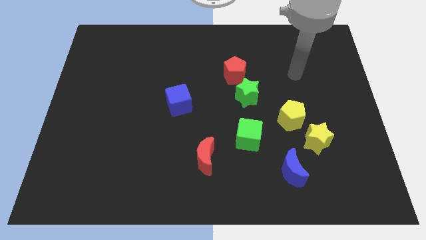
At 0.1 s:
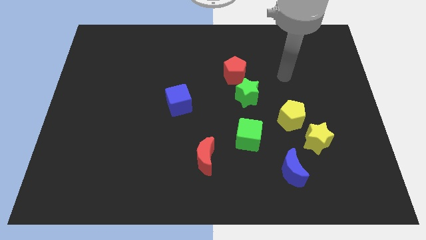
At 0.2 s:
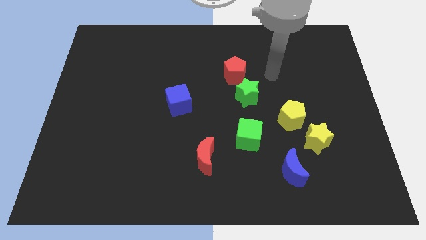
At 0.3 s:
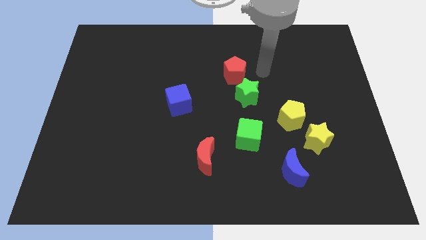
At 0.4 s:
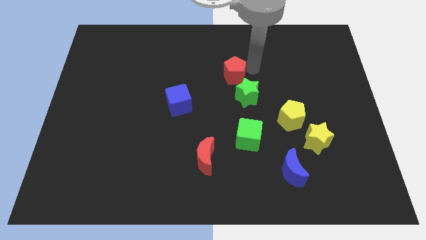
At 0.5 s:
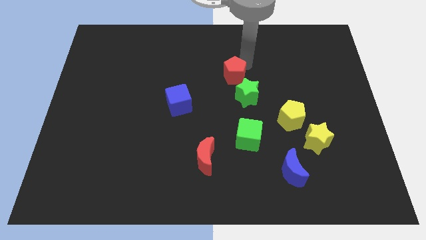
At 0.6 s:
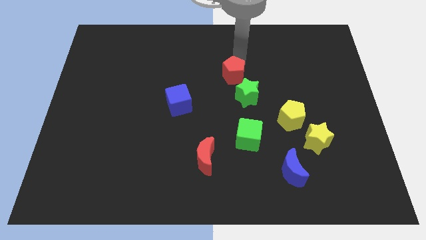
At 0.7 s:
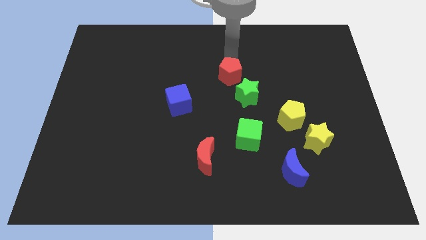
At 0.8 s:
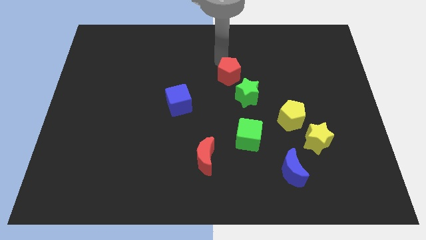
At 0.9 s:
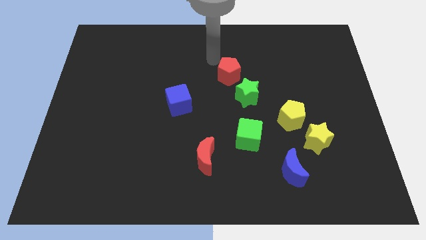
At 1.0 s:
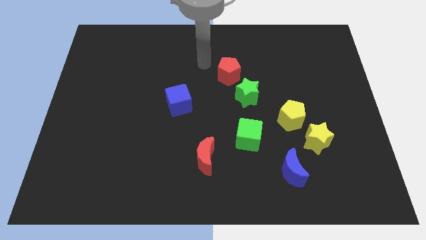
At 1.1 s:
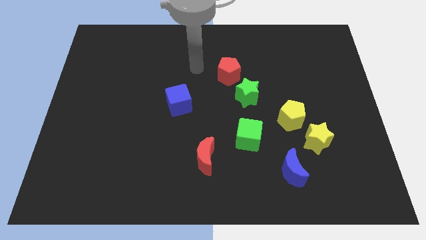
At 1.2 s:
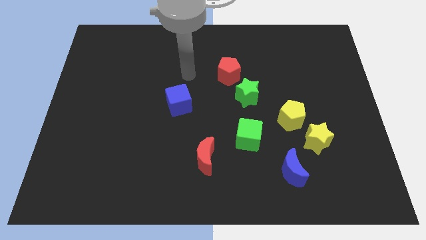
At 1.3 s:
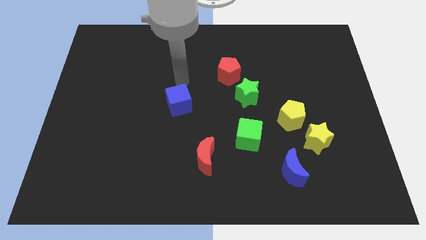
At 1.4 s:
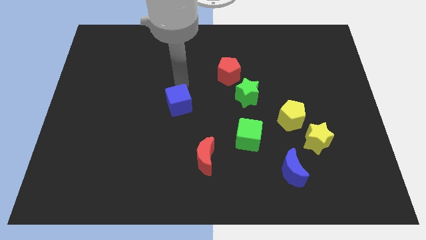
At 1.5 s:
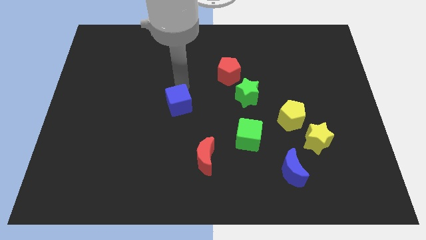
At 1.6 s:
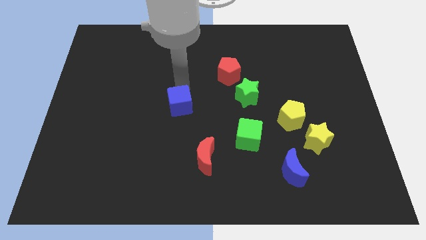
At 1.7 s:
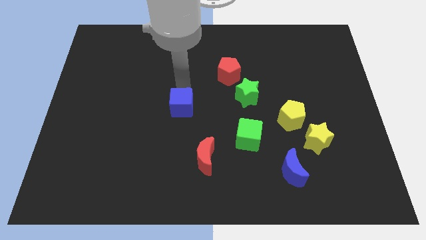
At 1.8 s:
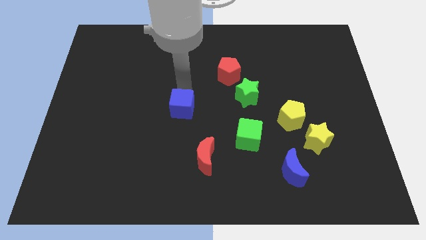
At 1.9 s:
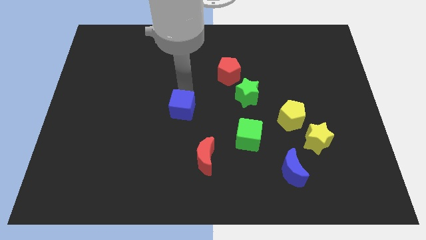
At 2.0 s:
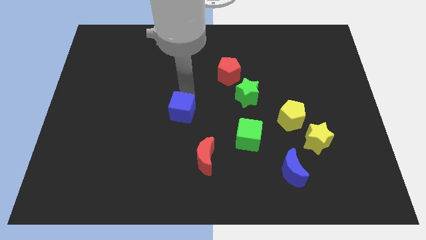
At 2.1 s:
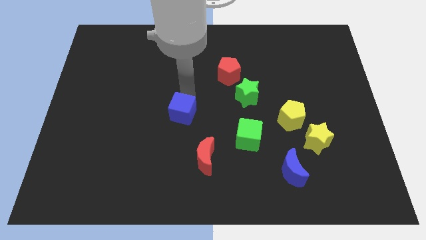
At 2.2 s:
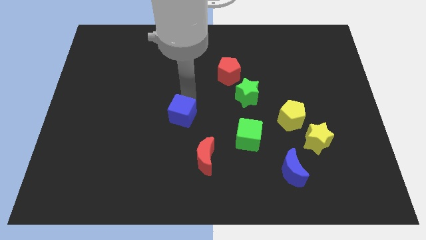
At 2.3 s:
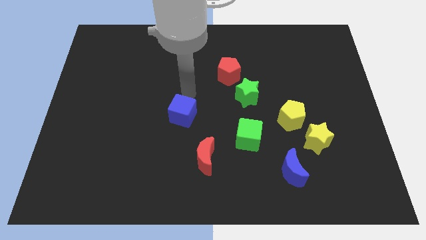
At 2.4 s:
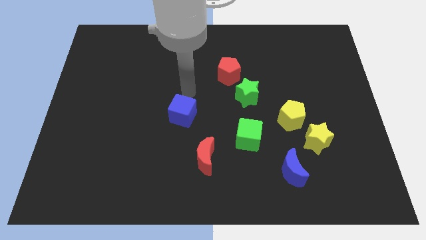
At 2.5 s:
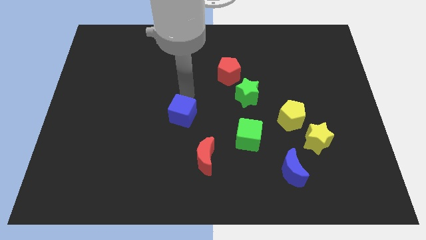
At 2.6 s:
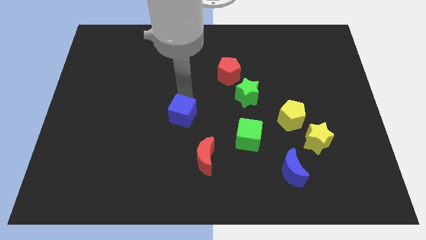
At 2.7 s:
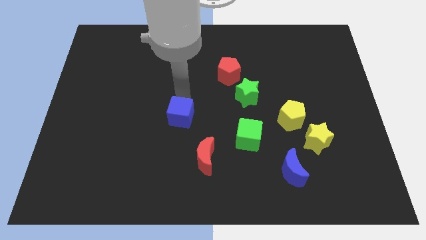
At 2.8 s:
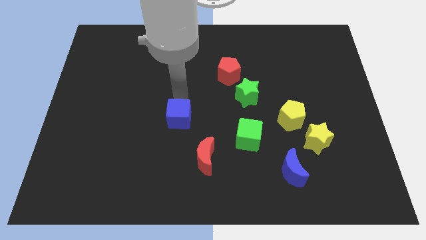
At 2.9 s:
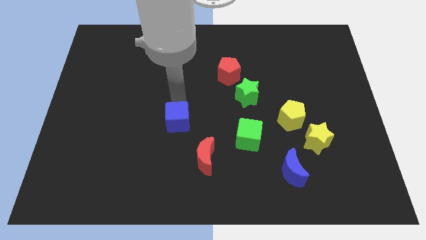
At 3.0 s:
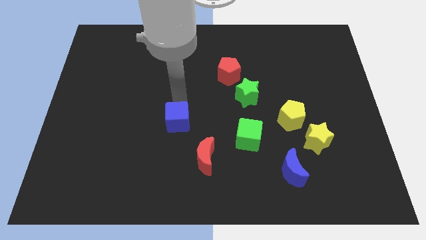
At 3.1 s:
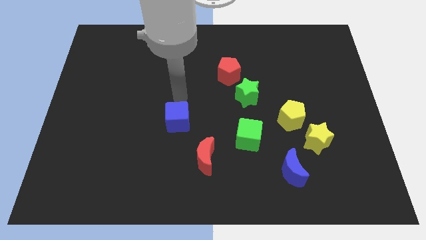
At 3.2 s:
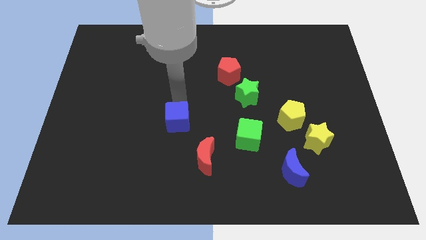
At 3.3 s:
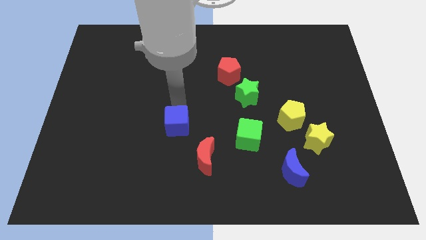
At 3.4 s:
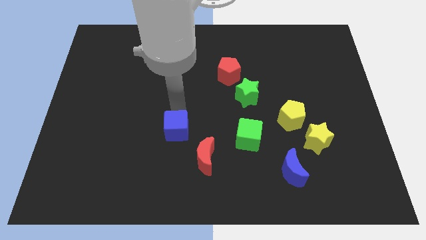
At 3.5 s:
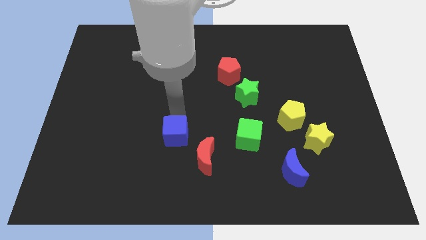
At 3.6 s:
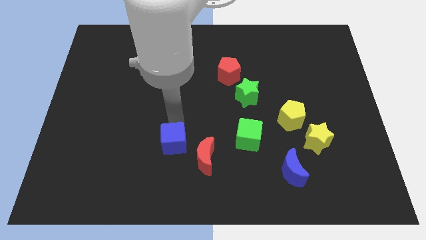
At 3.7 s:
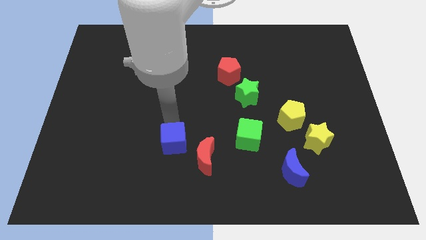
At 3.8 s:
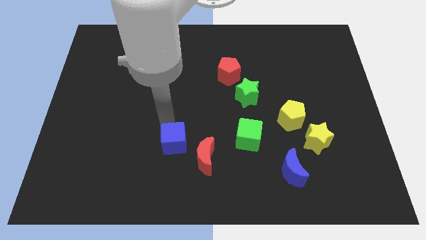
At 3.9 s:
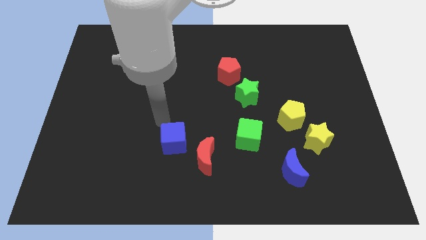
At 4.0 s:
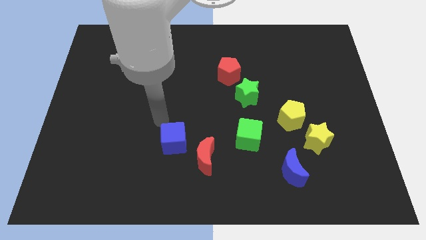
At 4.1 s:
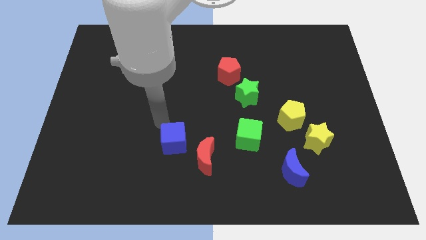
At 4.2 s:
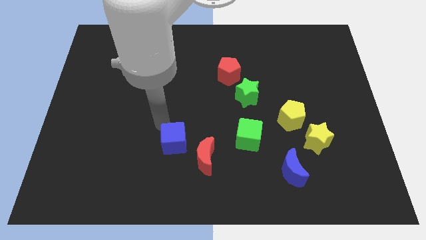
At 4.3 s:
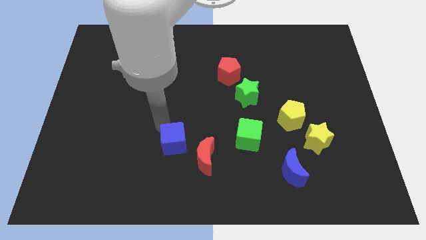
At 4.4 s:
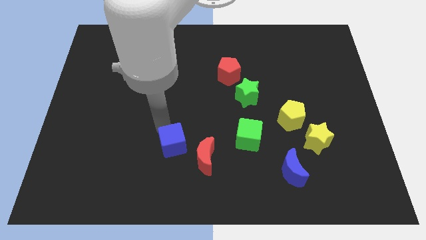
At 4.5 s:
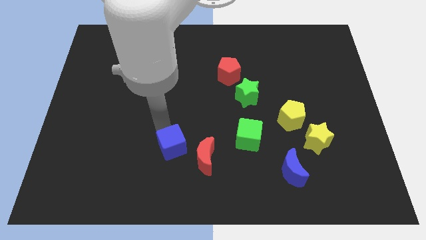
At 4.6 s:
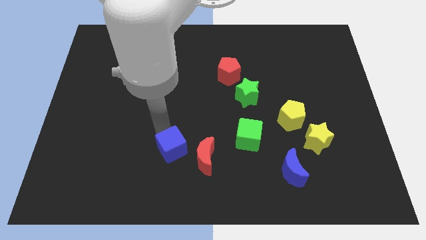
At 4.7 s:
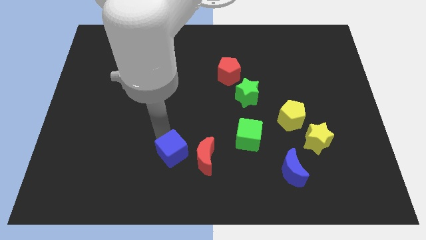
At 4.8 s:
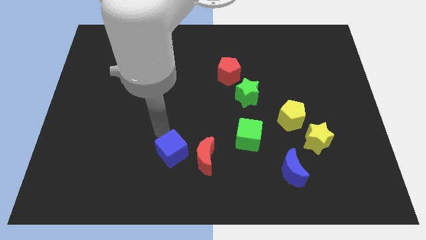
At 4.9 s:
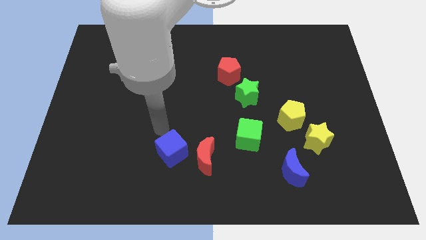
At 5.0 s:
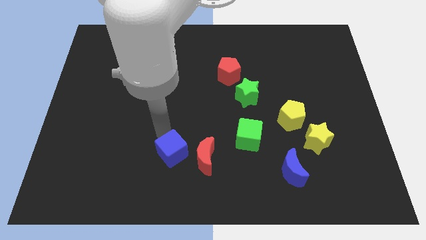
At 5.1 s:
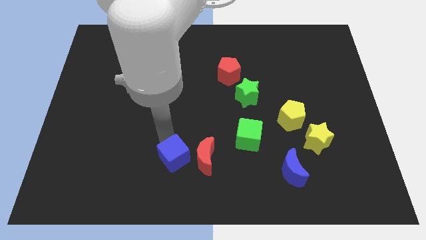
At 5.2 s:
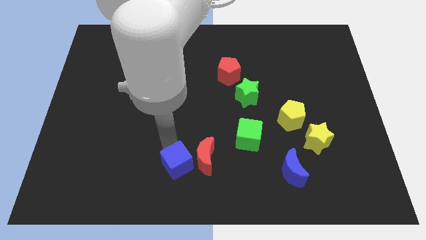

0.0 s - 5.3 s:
move the blue cube to the bottom

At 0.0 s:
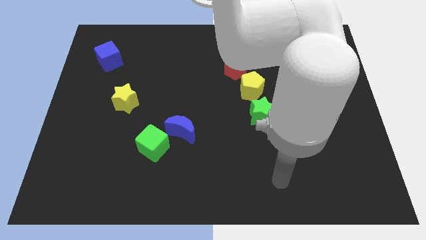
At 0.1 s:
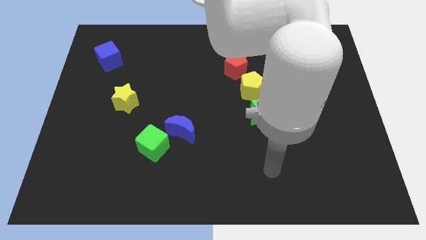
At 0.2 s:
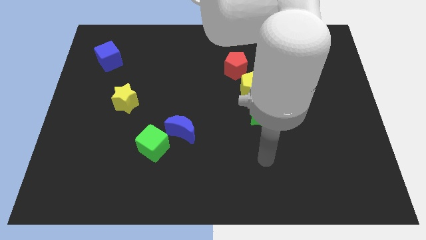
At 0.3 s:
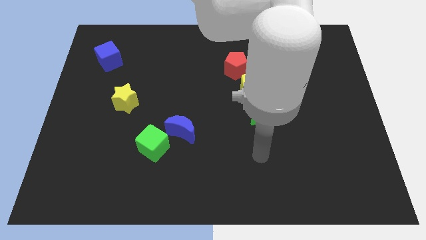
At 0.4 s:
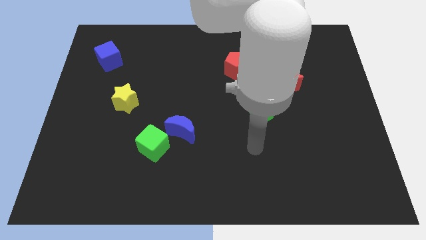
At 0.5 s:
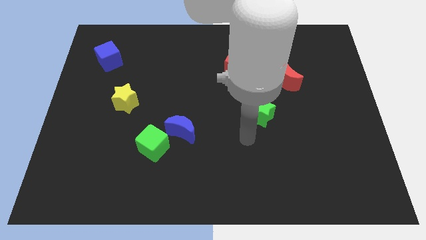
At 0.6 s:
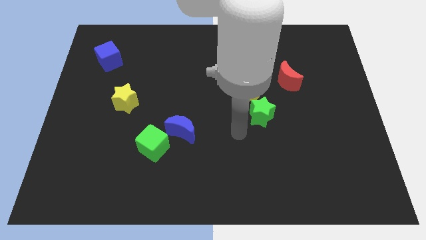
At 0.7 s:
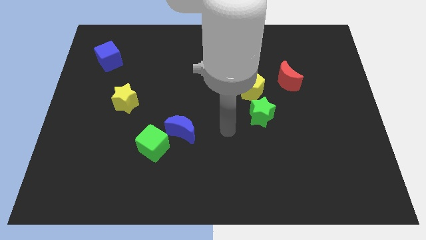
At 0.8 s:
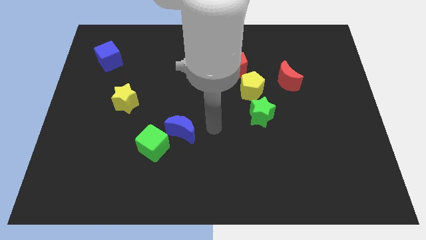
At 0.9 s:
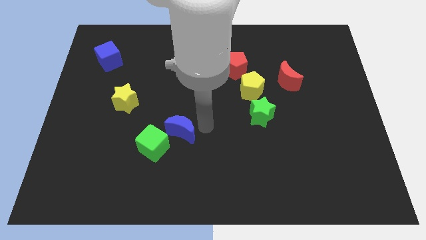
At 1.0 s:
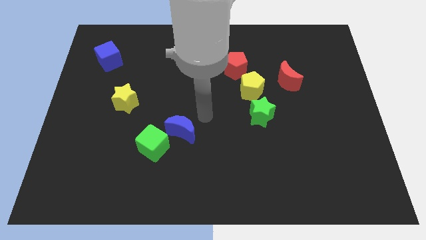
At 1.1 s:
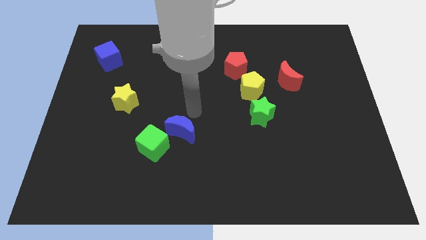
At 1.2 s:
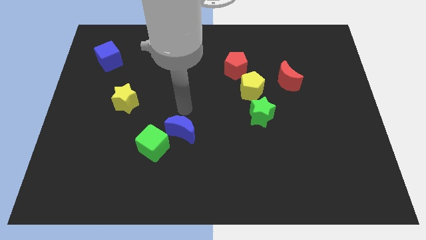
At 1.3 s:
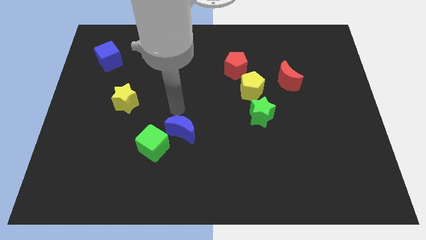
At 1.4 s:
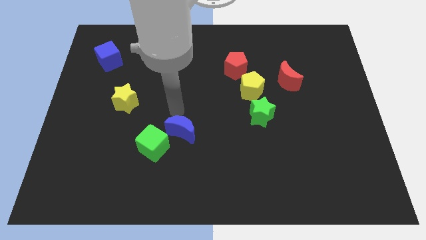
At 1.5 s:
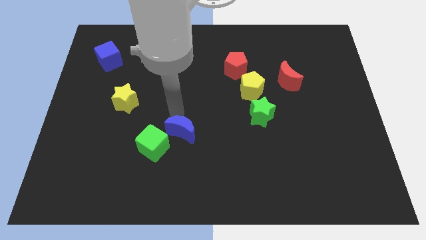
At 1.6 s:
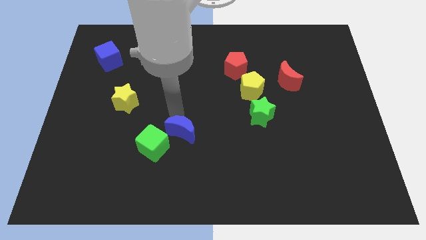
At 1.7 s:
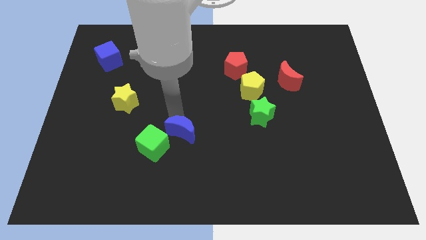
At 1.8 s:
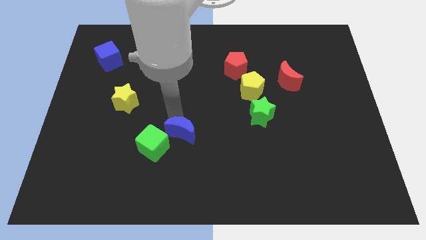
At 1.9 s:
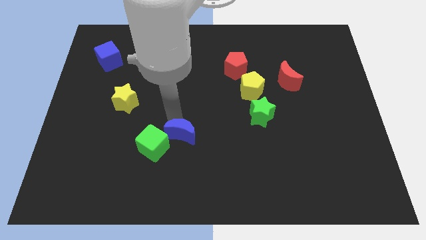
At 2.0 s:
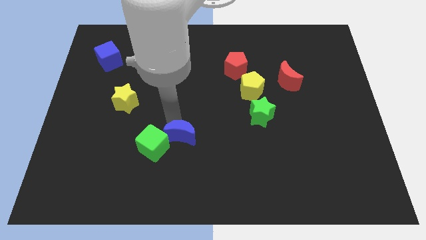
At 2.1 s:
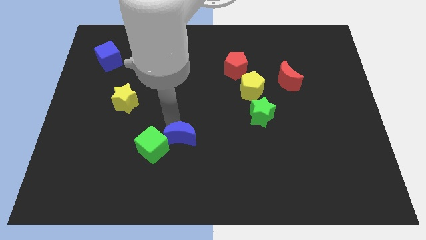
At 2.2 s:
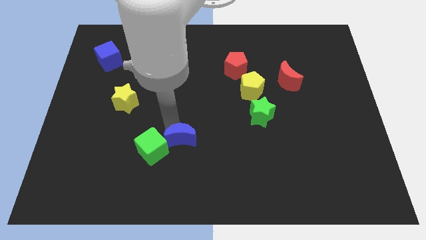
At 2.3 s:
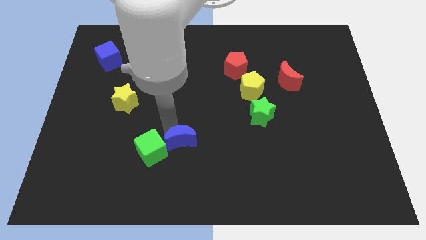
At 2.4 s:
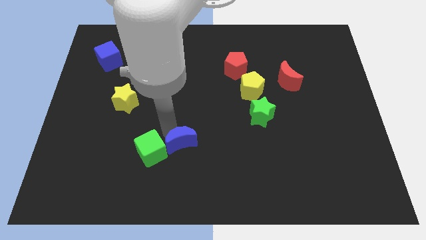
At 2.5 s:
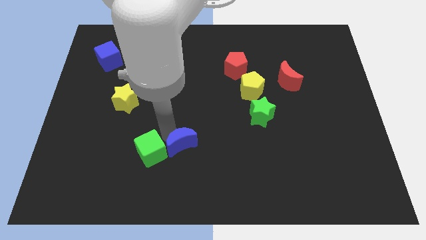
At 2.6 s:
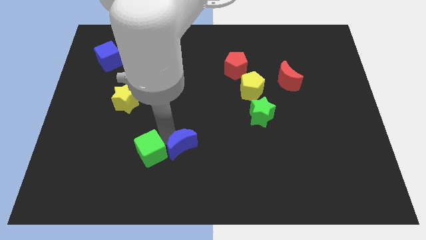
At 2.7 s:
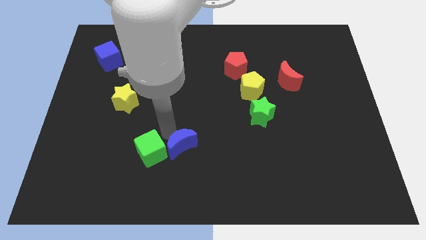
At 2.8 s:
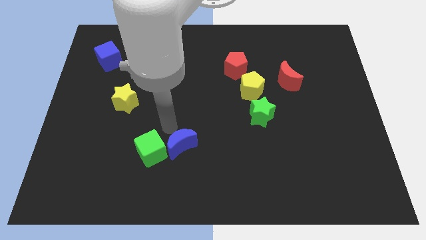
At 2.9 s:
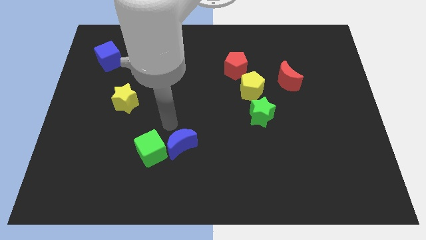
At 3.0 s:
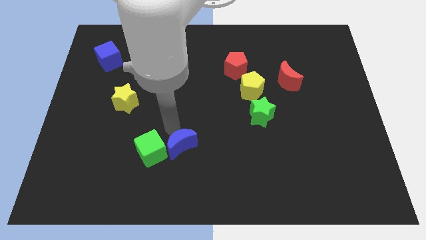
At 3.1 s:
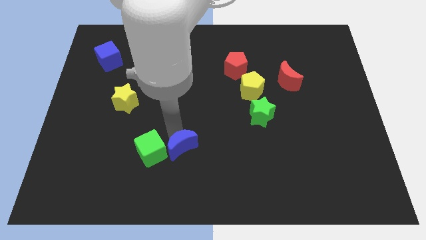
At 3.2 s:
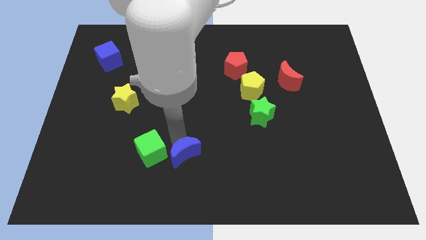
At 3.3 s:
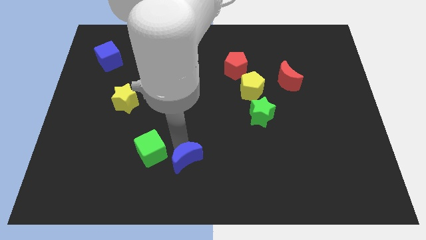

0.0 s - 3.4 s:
push the blue moon to the bottom side
